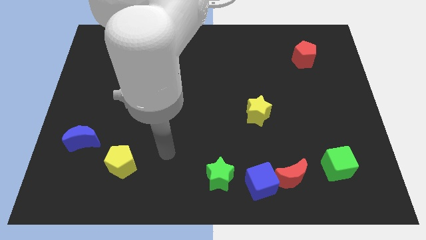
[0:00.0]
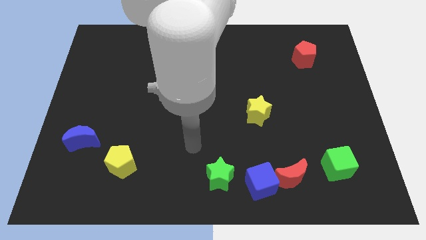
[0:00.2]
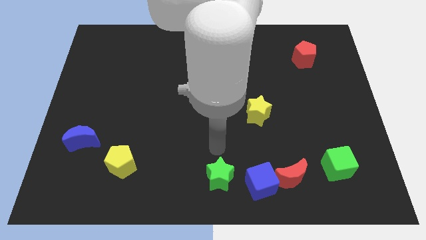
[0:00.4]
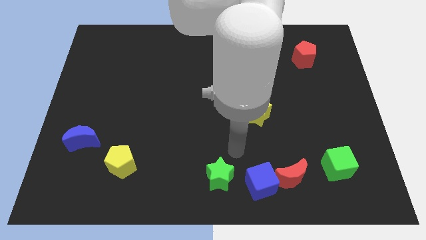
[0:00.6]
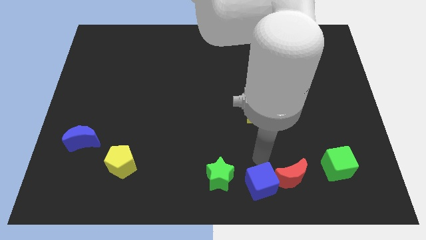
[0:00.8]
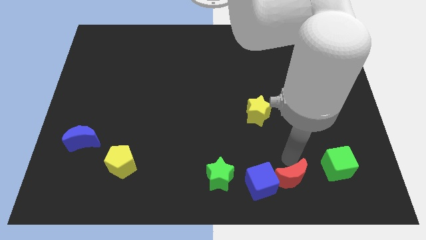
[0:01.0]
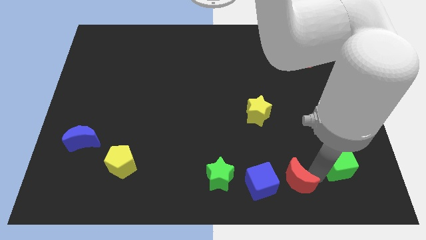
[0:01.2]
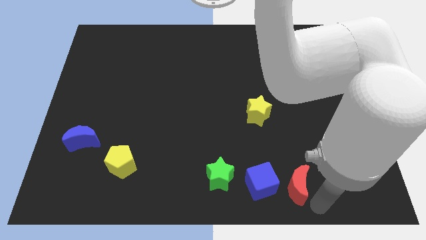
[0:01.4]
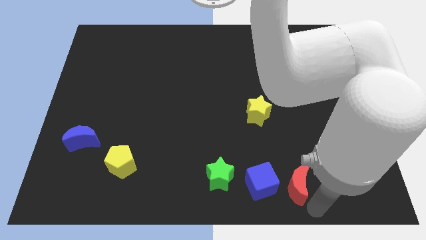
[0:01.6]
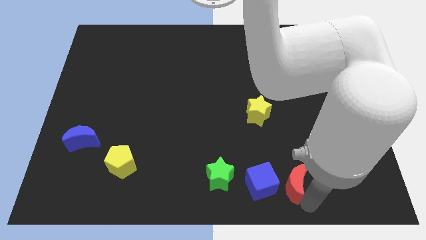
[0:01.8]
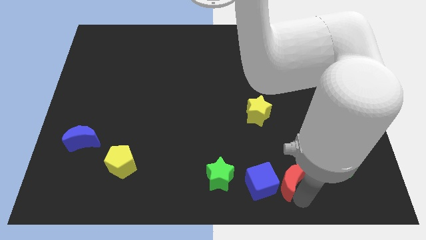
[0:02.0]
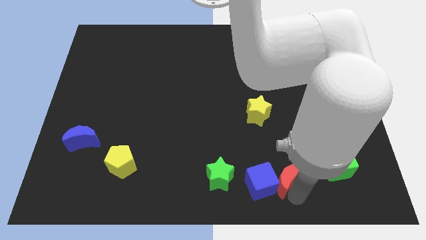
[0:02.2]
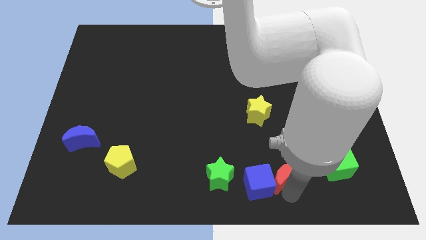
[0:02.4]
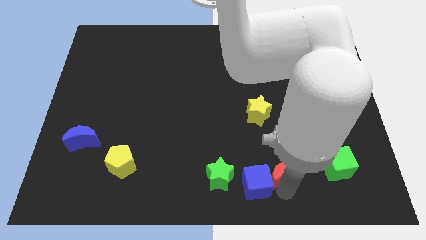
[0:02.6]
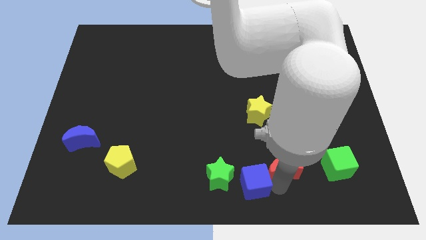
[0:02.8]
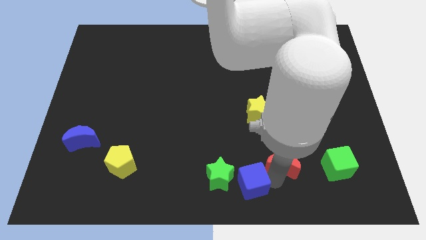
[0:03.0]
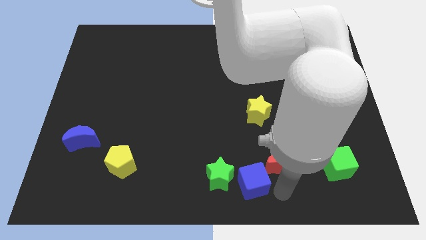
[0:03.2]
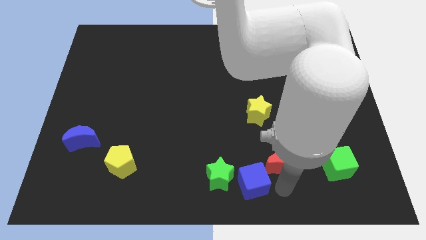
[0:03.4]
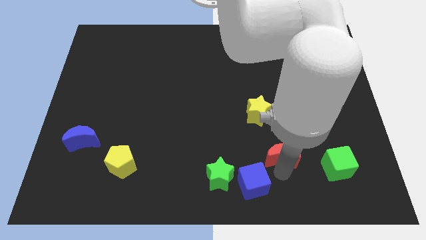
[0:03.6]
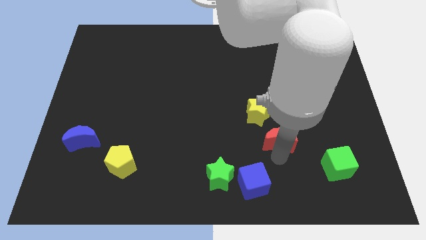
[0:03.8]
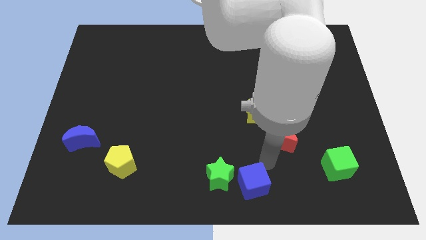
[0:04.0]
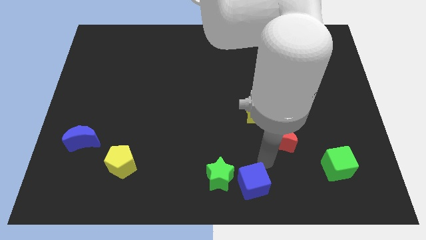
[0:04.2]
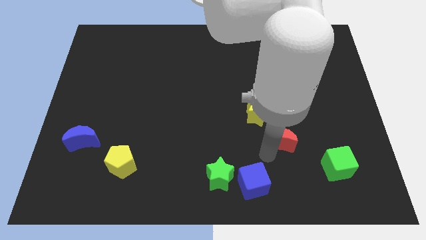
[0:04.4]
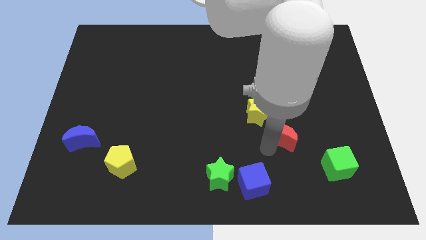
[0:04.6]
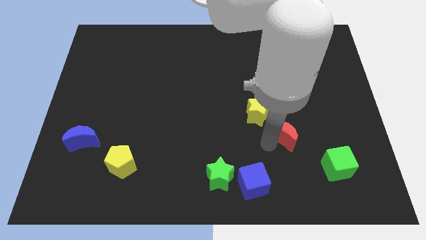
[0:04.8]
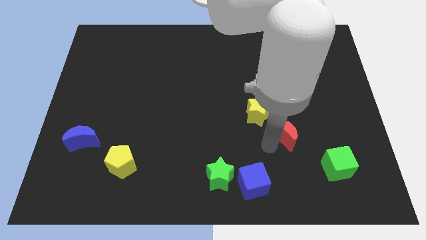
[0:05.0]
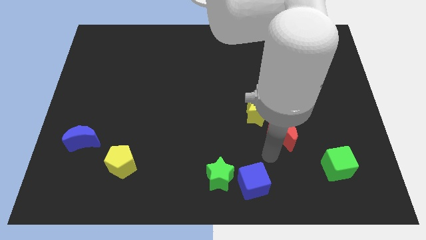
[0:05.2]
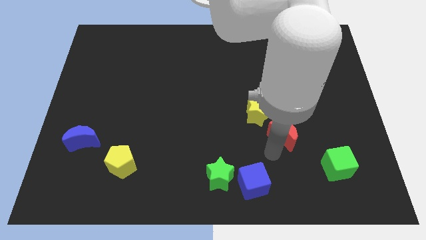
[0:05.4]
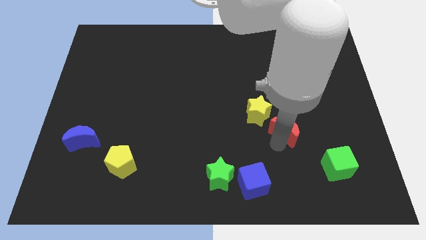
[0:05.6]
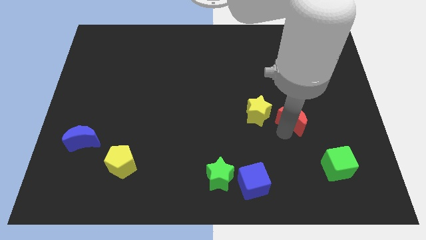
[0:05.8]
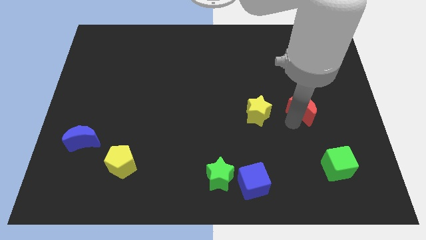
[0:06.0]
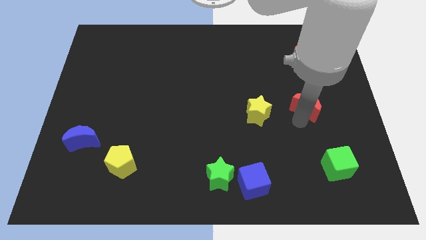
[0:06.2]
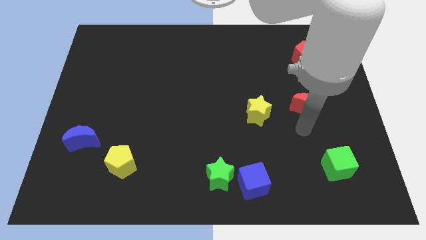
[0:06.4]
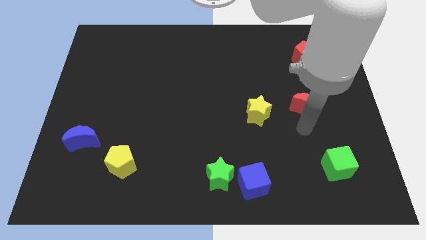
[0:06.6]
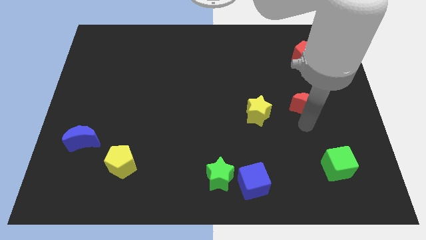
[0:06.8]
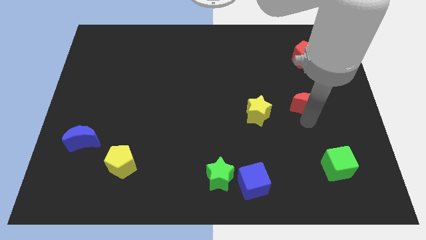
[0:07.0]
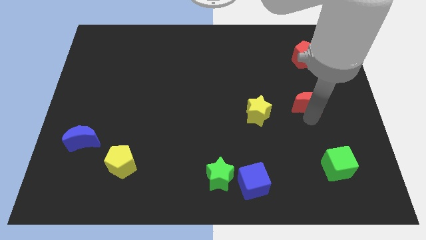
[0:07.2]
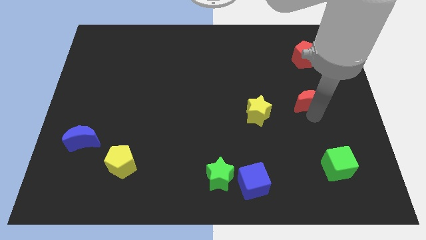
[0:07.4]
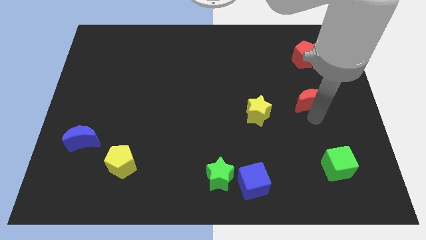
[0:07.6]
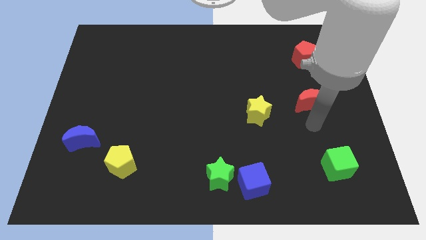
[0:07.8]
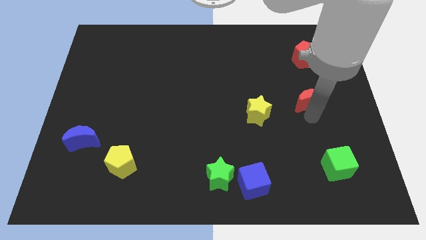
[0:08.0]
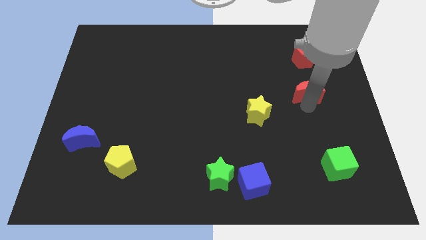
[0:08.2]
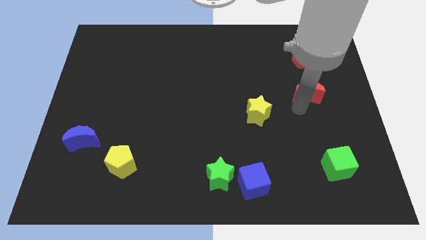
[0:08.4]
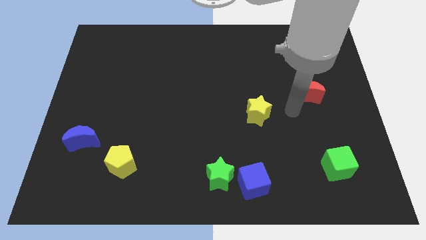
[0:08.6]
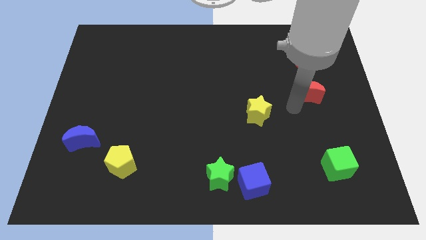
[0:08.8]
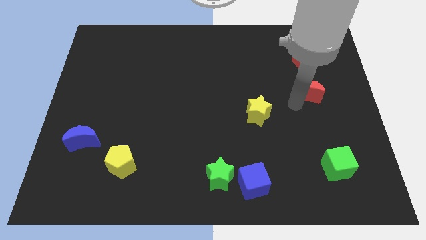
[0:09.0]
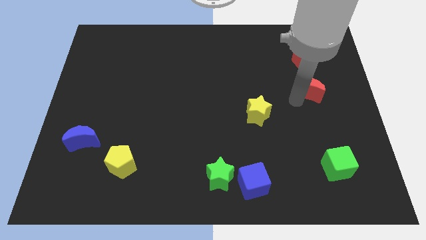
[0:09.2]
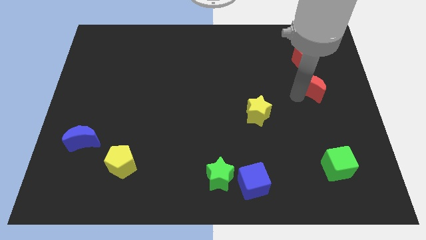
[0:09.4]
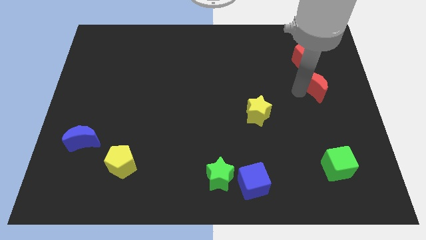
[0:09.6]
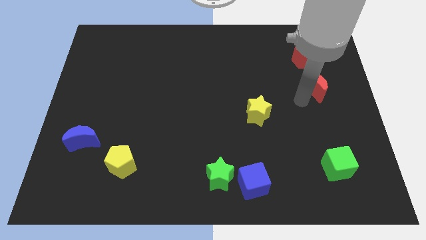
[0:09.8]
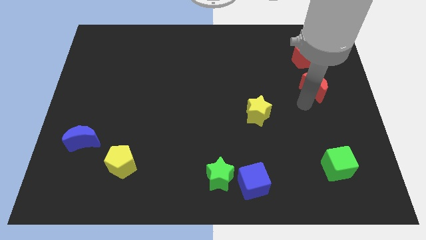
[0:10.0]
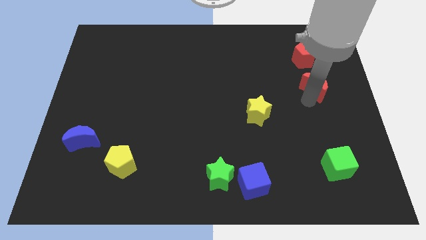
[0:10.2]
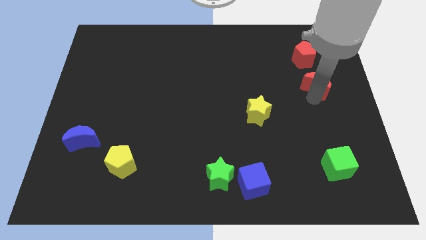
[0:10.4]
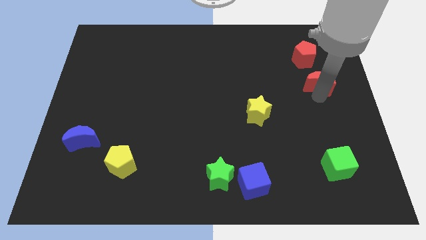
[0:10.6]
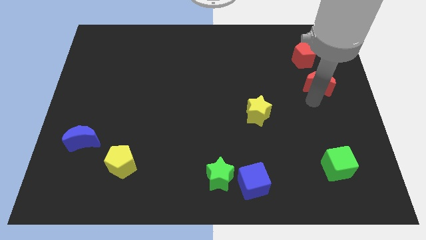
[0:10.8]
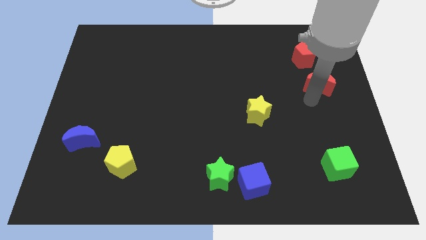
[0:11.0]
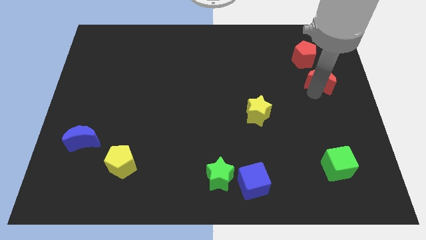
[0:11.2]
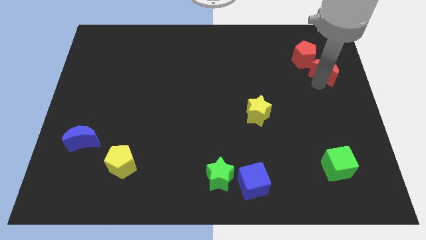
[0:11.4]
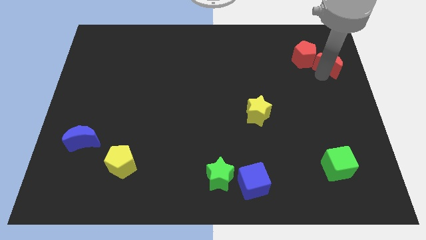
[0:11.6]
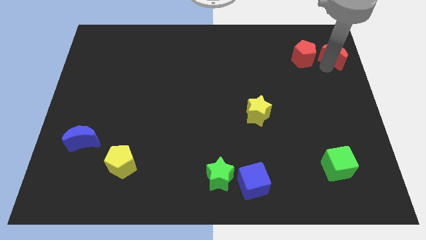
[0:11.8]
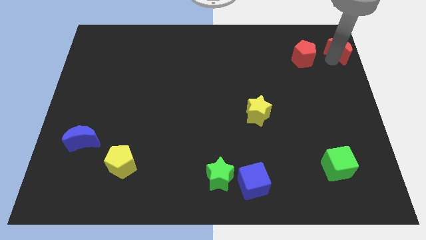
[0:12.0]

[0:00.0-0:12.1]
slide the red moon to the upper right corner
